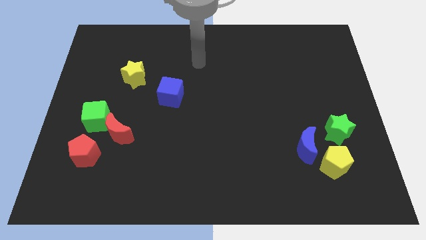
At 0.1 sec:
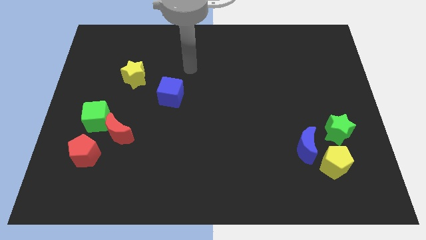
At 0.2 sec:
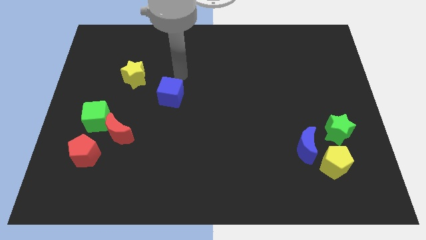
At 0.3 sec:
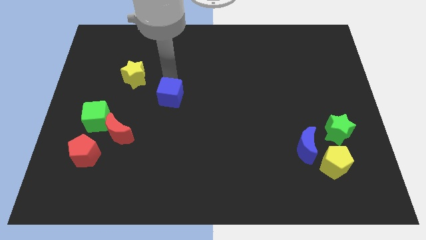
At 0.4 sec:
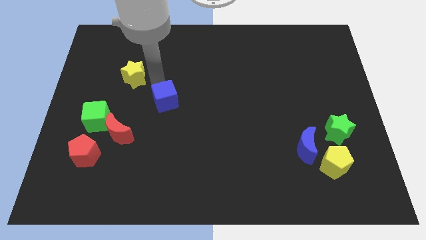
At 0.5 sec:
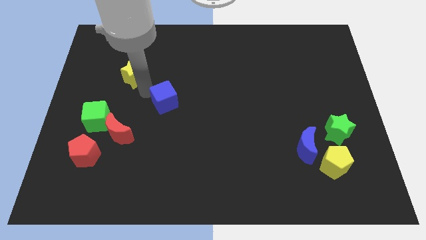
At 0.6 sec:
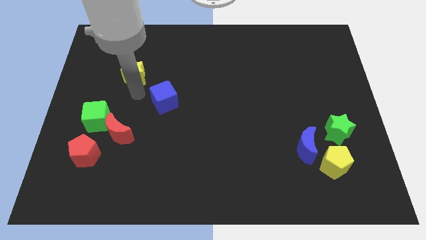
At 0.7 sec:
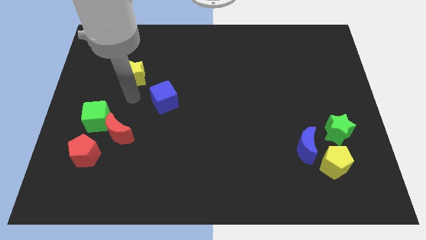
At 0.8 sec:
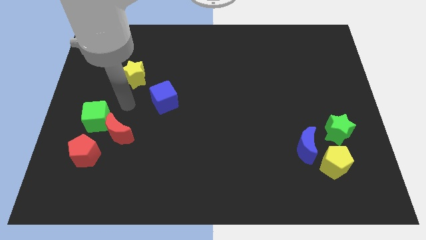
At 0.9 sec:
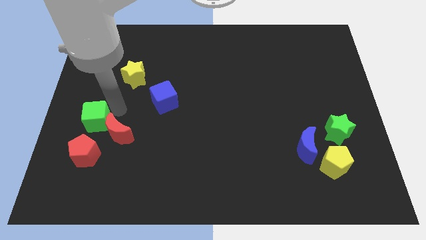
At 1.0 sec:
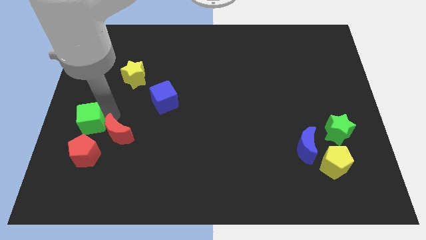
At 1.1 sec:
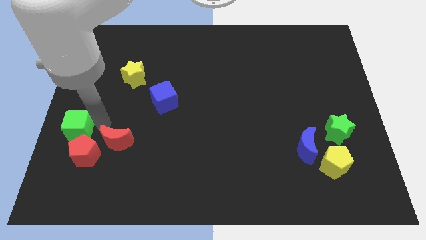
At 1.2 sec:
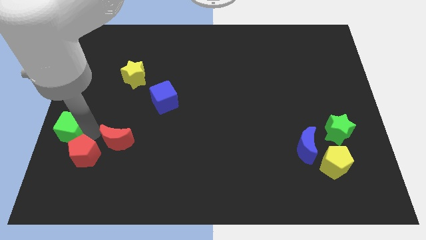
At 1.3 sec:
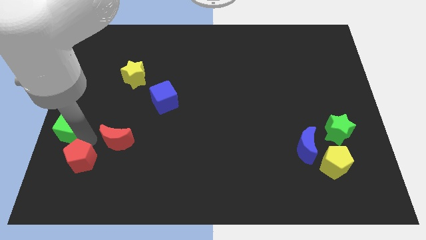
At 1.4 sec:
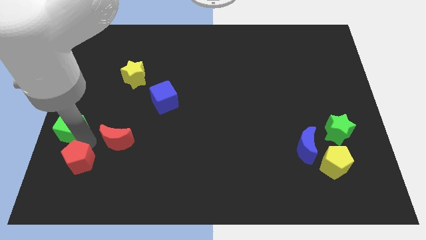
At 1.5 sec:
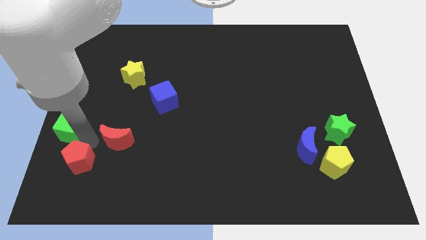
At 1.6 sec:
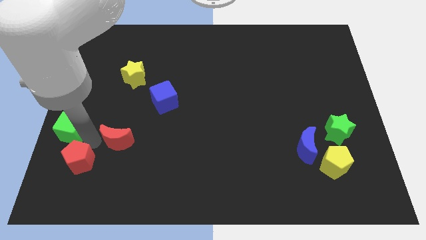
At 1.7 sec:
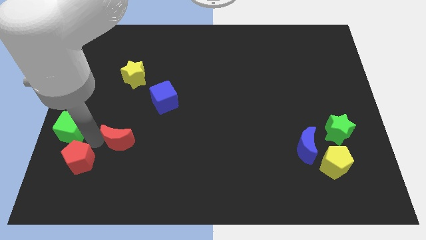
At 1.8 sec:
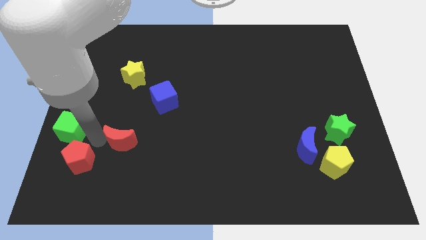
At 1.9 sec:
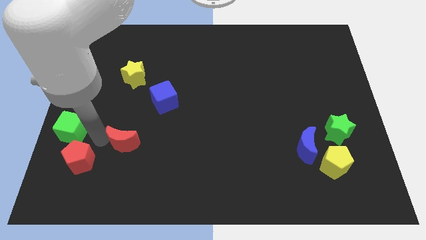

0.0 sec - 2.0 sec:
pull the red moon apart from the green cube and red pentagon

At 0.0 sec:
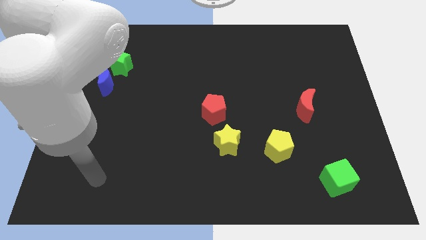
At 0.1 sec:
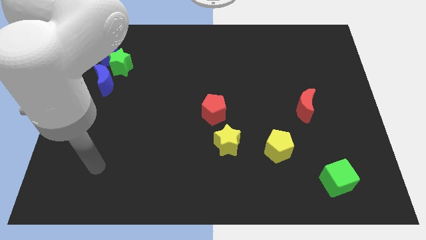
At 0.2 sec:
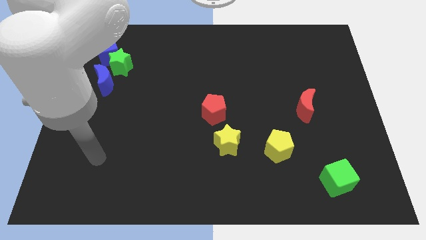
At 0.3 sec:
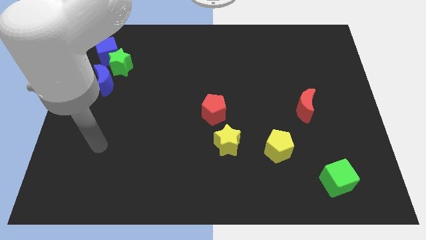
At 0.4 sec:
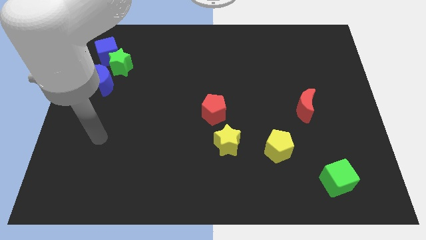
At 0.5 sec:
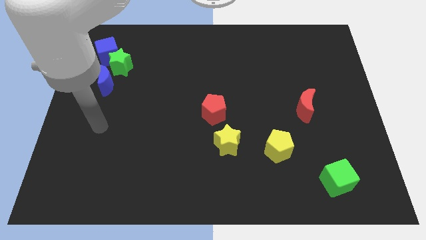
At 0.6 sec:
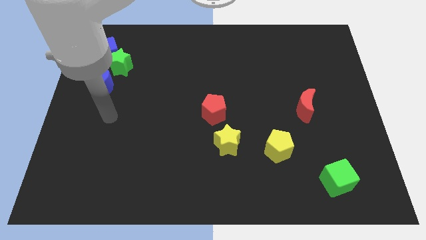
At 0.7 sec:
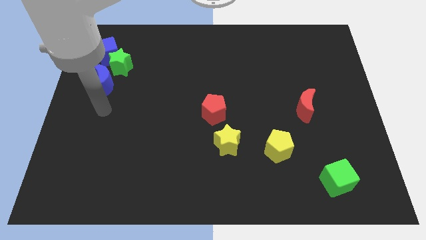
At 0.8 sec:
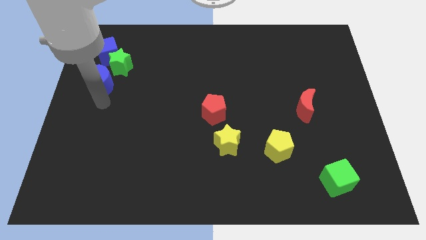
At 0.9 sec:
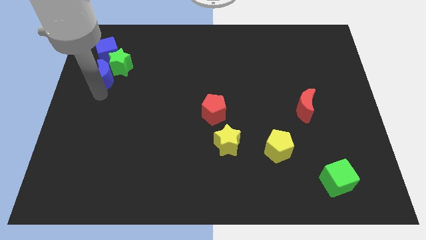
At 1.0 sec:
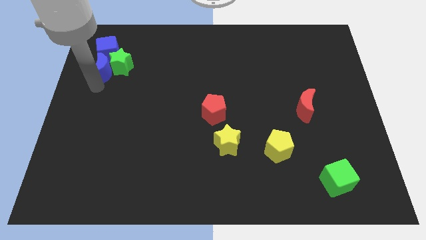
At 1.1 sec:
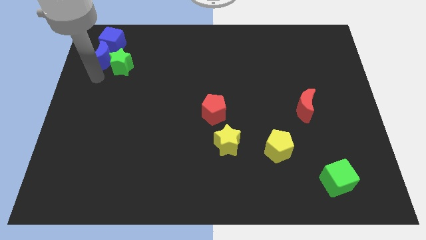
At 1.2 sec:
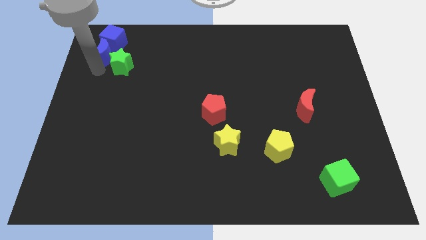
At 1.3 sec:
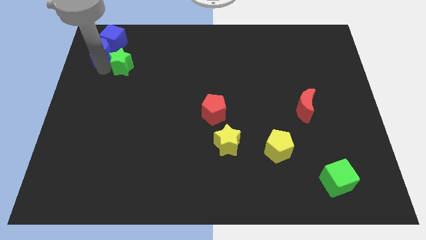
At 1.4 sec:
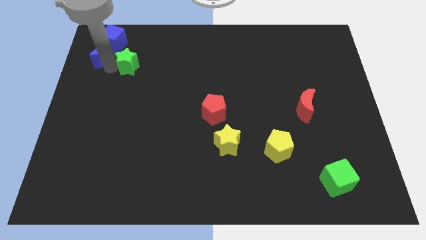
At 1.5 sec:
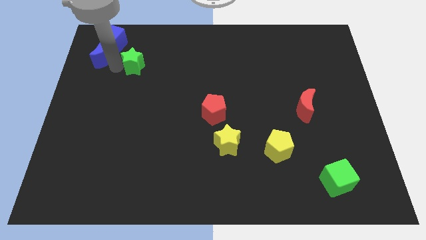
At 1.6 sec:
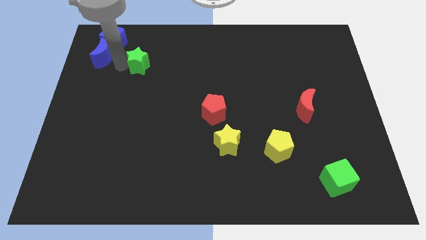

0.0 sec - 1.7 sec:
move the green star away from the blue cube and blue moon

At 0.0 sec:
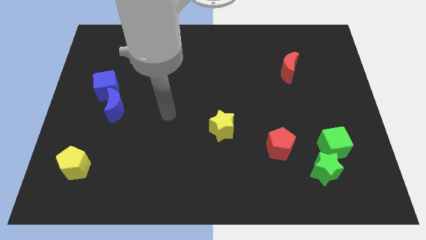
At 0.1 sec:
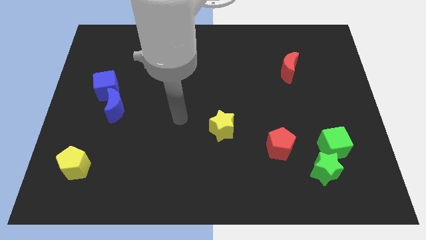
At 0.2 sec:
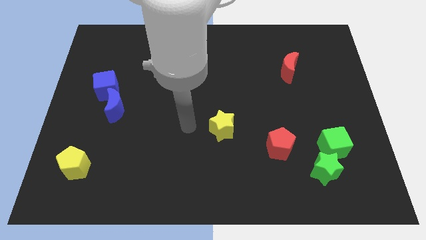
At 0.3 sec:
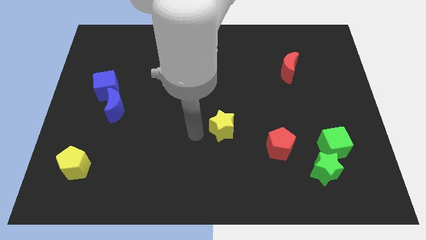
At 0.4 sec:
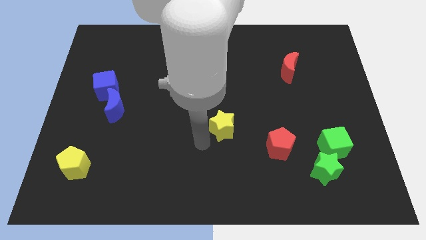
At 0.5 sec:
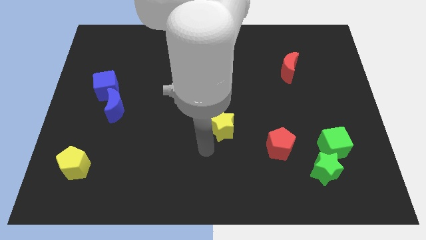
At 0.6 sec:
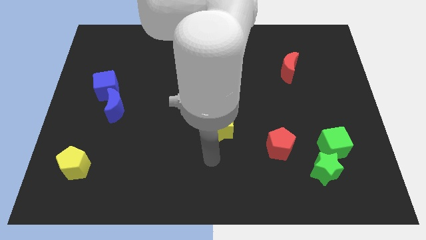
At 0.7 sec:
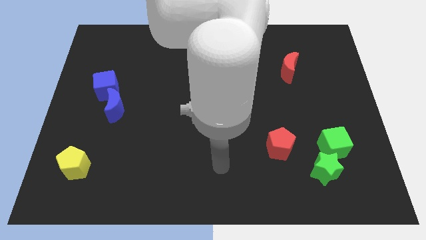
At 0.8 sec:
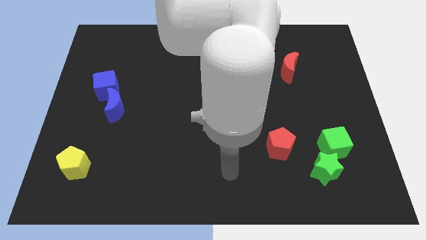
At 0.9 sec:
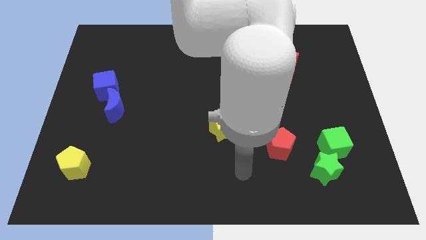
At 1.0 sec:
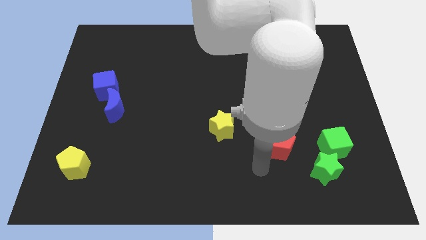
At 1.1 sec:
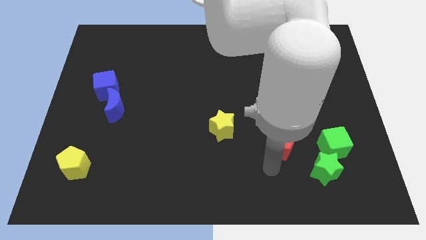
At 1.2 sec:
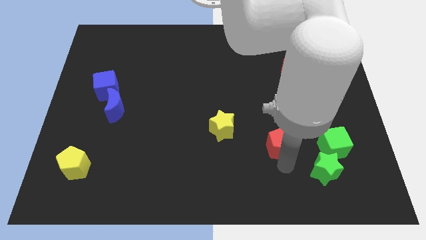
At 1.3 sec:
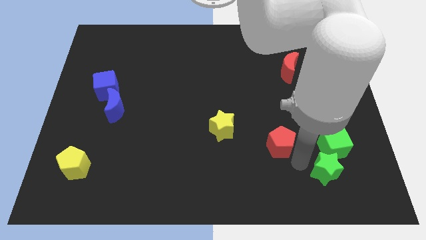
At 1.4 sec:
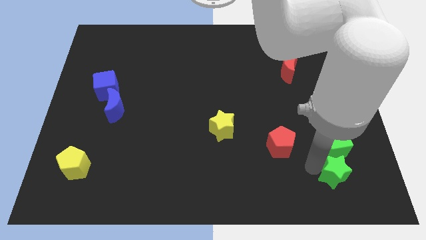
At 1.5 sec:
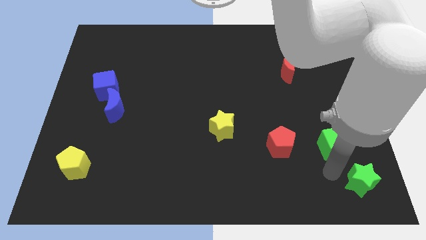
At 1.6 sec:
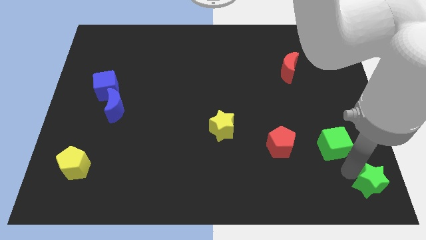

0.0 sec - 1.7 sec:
pull the green cube apart from the green star

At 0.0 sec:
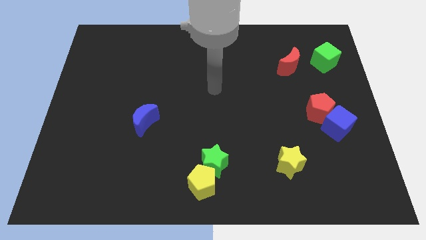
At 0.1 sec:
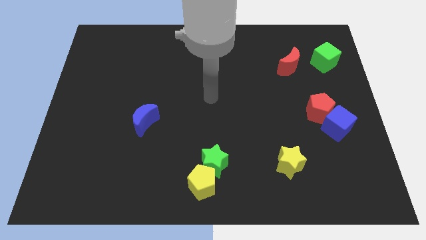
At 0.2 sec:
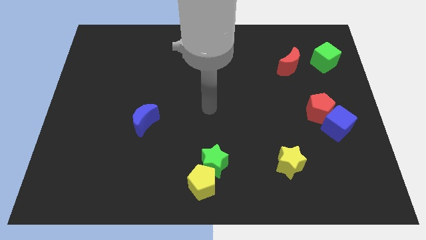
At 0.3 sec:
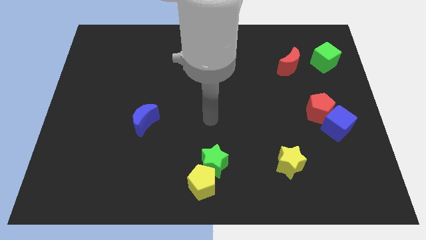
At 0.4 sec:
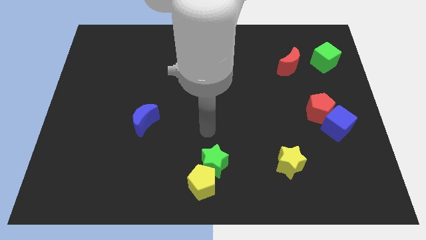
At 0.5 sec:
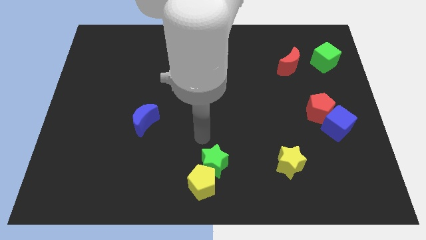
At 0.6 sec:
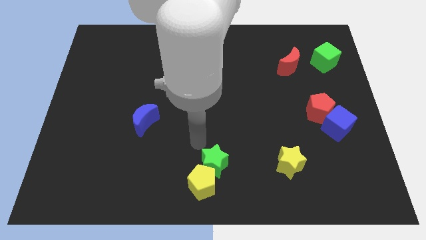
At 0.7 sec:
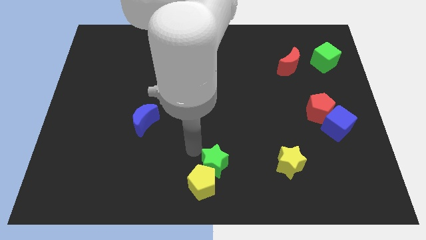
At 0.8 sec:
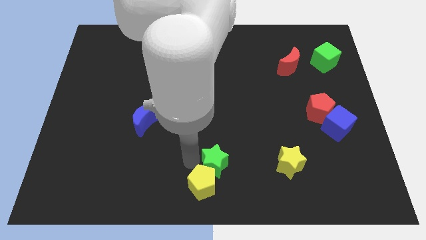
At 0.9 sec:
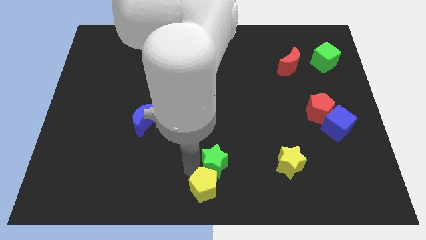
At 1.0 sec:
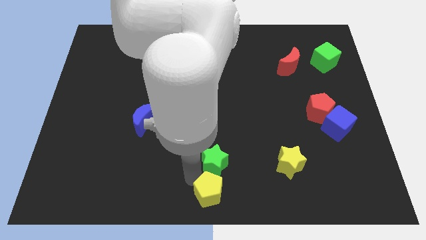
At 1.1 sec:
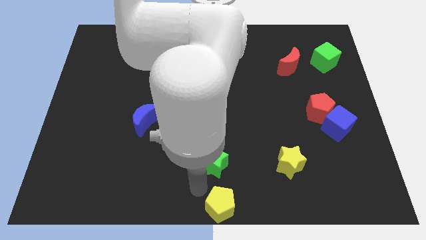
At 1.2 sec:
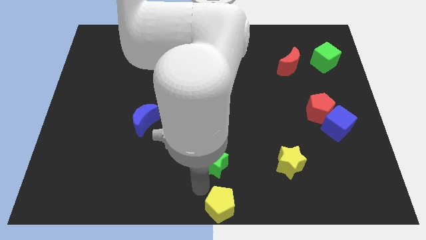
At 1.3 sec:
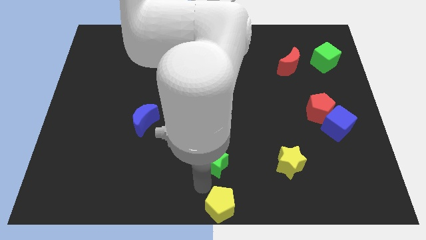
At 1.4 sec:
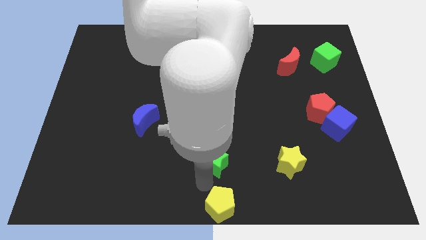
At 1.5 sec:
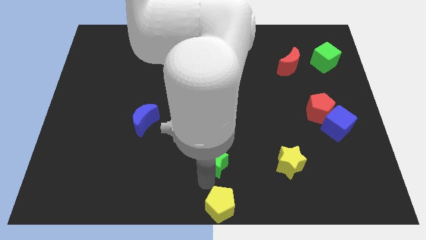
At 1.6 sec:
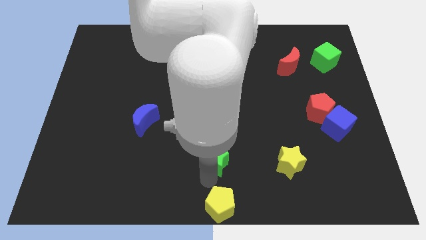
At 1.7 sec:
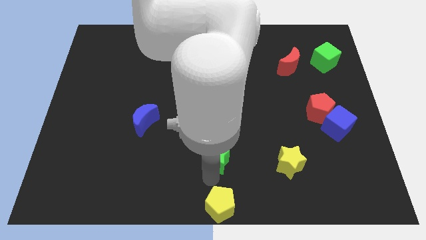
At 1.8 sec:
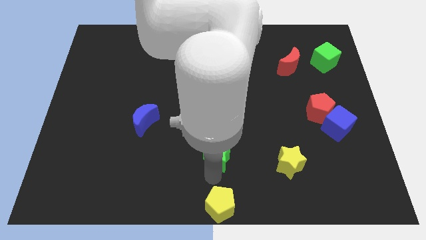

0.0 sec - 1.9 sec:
separate the green star from the yellow pentagon

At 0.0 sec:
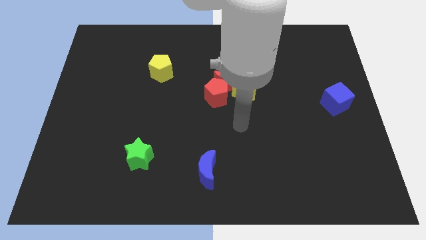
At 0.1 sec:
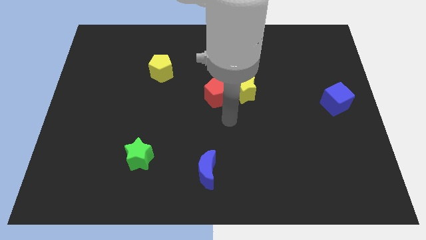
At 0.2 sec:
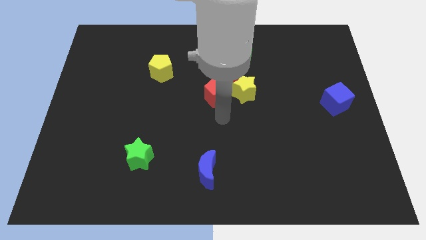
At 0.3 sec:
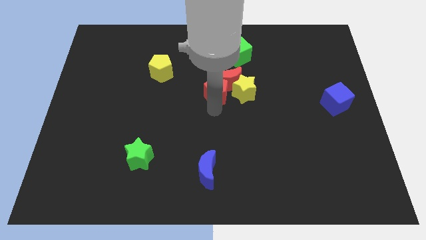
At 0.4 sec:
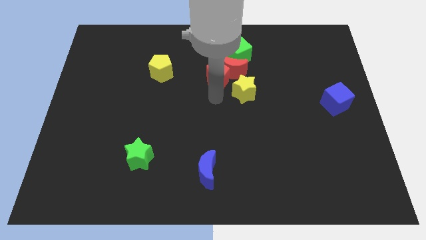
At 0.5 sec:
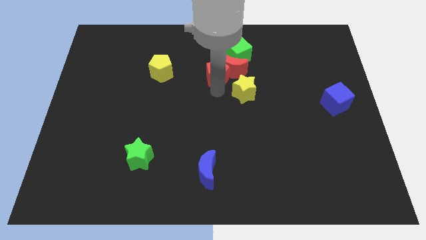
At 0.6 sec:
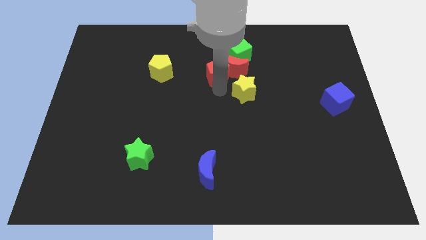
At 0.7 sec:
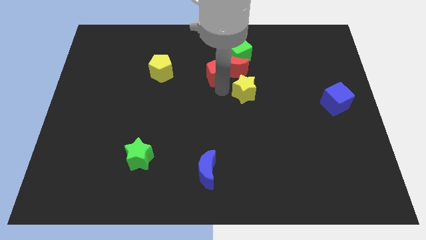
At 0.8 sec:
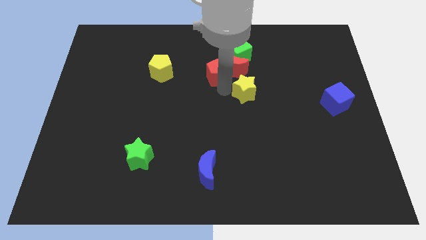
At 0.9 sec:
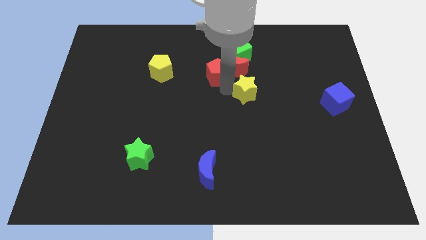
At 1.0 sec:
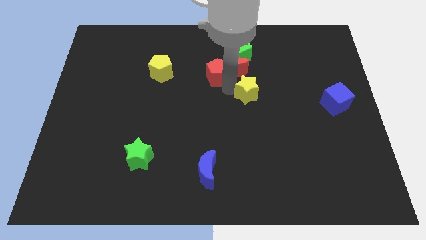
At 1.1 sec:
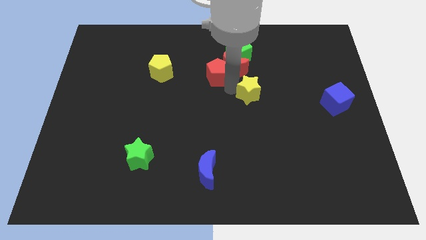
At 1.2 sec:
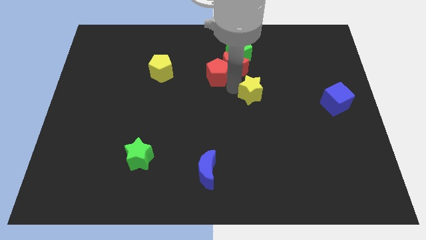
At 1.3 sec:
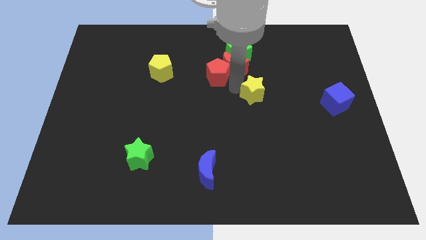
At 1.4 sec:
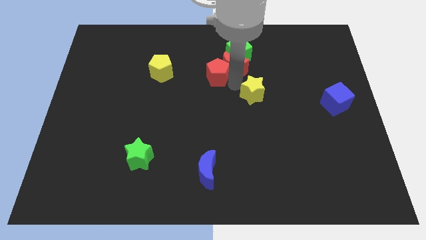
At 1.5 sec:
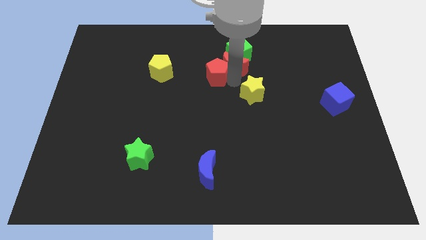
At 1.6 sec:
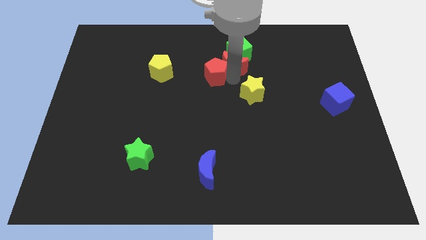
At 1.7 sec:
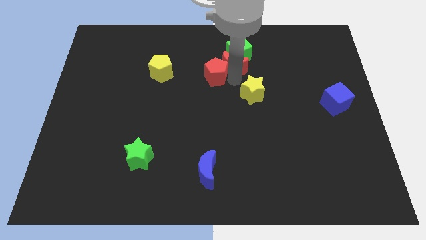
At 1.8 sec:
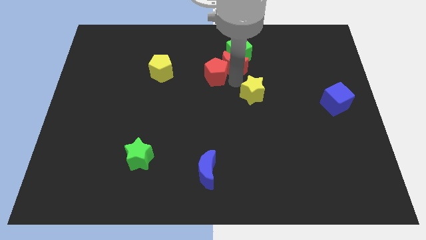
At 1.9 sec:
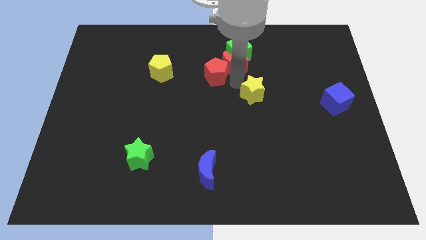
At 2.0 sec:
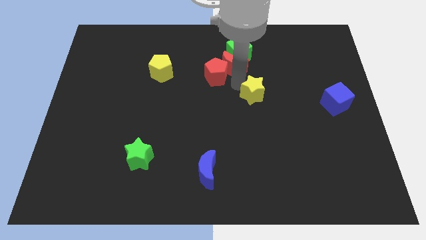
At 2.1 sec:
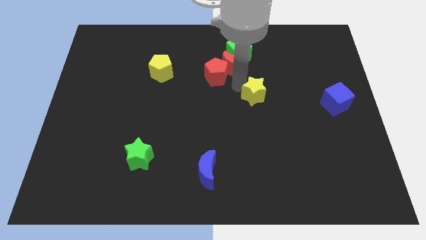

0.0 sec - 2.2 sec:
pull the yellow star apart from the red moon and red pentagon
